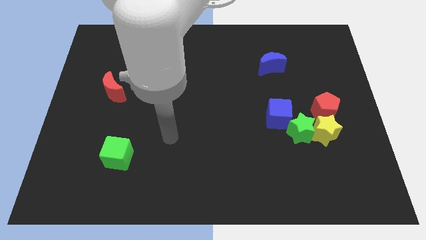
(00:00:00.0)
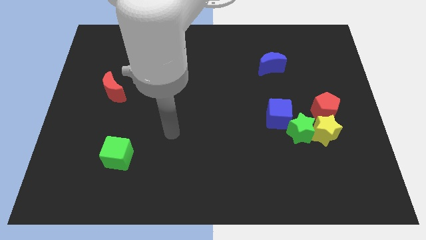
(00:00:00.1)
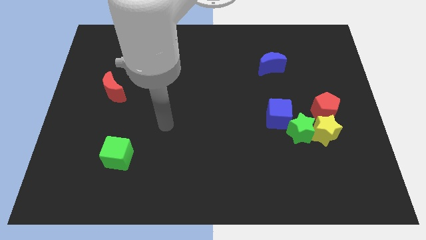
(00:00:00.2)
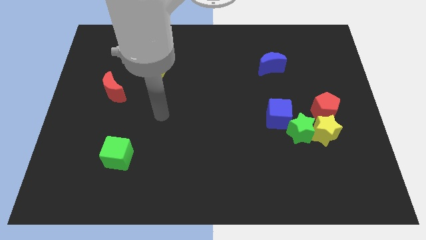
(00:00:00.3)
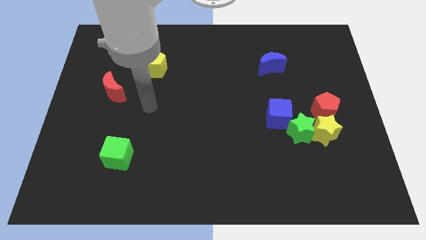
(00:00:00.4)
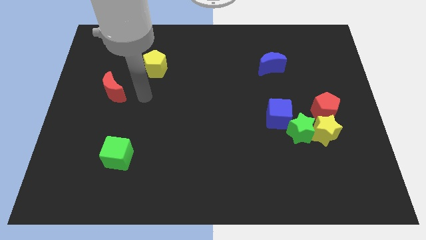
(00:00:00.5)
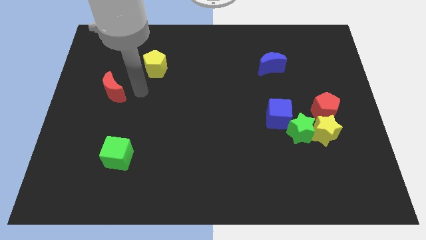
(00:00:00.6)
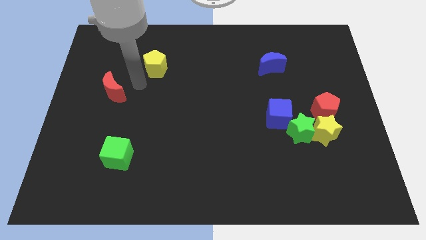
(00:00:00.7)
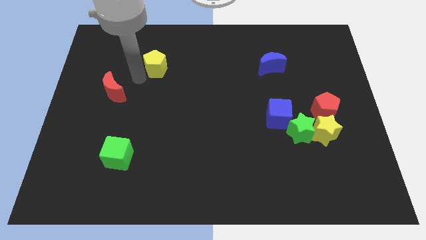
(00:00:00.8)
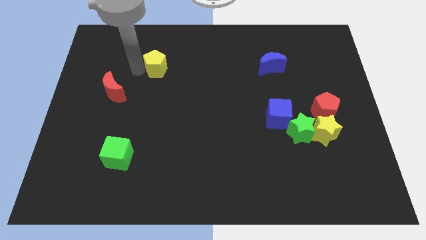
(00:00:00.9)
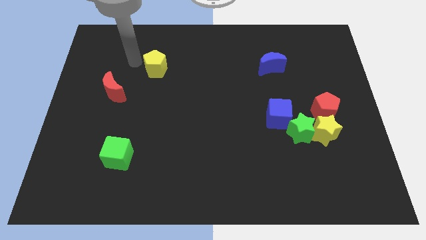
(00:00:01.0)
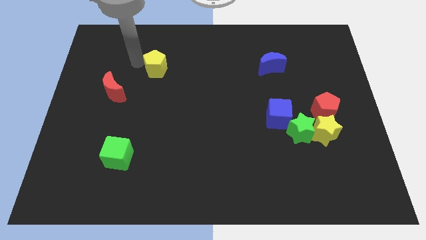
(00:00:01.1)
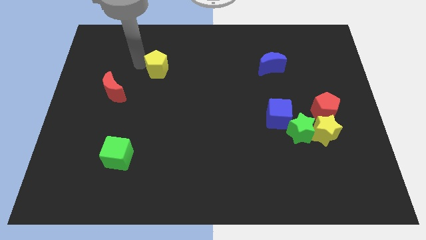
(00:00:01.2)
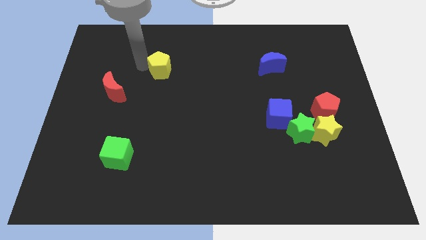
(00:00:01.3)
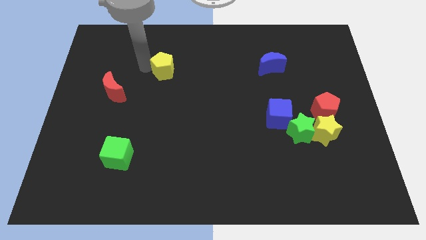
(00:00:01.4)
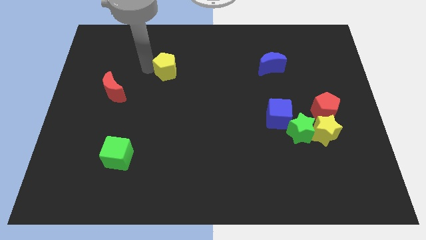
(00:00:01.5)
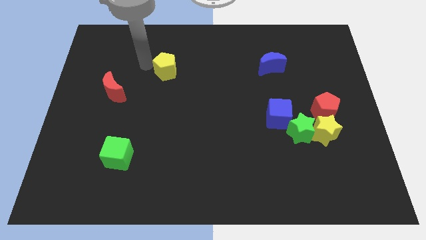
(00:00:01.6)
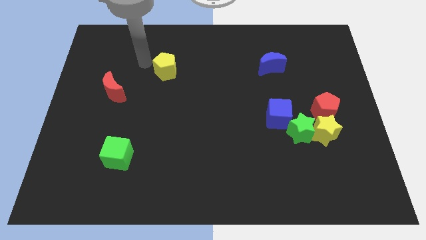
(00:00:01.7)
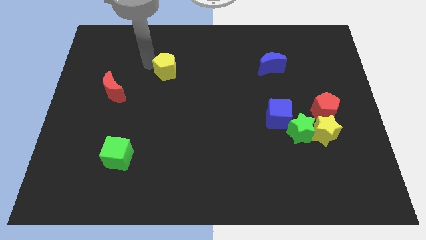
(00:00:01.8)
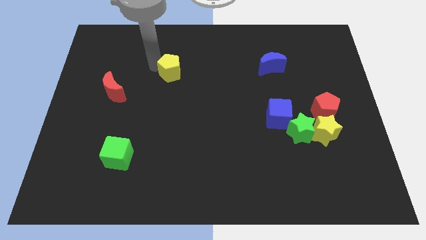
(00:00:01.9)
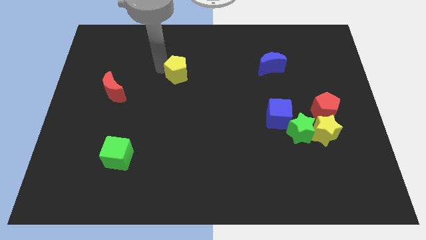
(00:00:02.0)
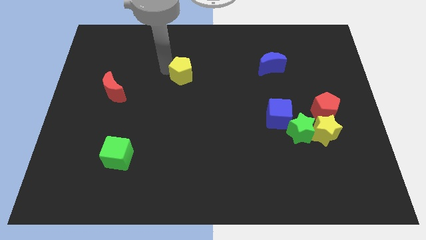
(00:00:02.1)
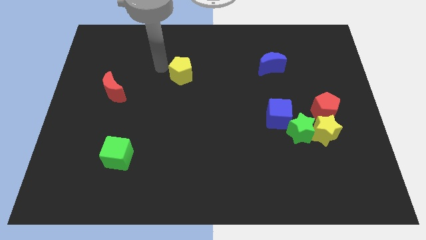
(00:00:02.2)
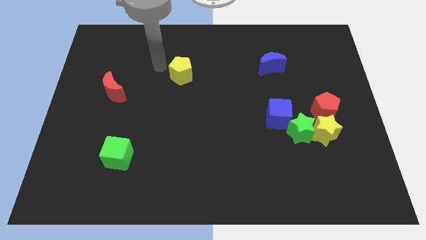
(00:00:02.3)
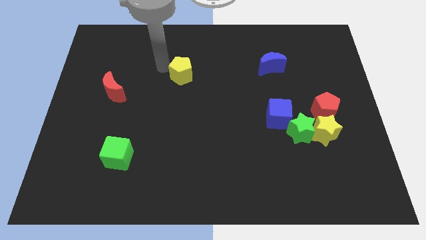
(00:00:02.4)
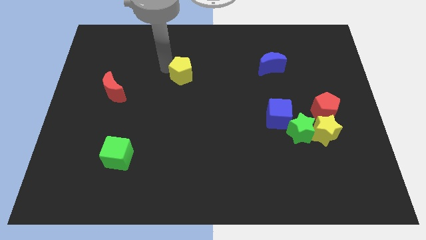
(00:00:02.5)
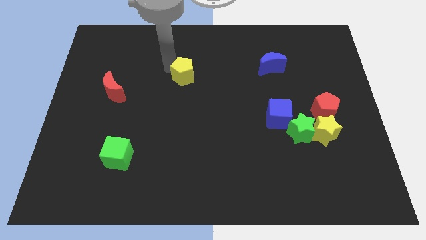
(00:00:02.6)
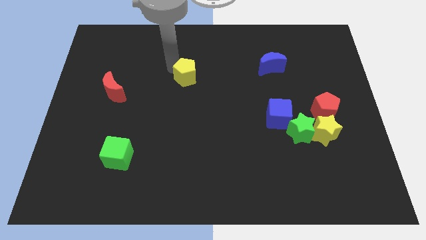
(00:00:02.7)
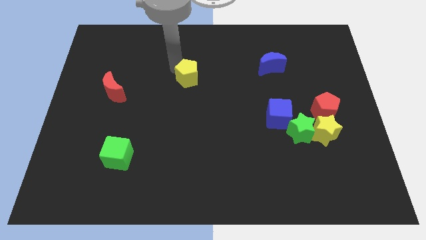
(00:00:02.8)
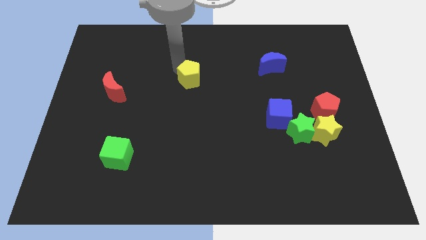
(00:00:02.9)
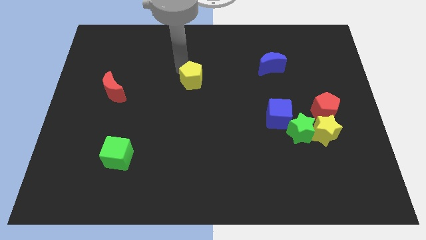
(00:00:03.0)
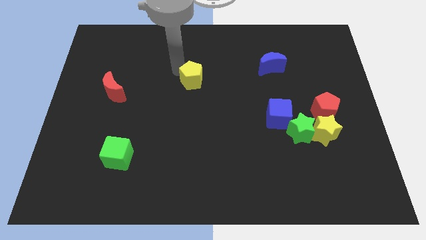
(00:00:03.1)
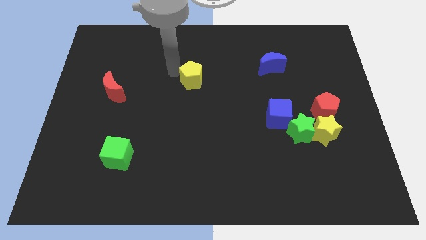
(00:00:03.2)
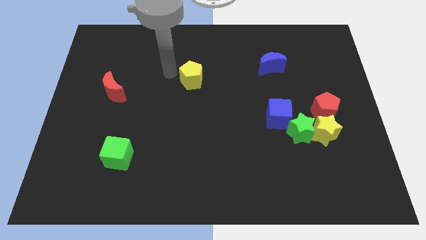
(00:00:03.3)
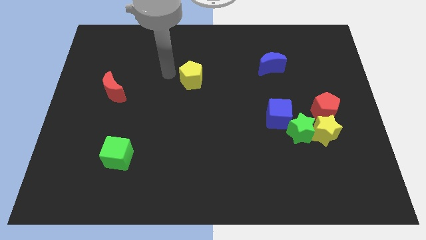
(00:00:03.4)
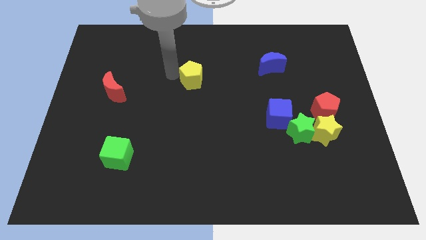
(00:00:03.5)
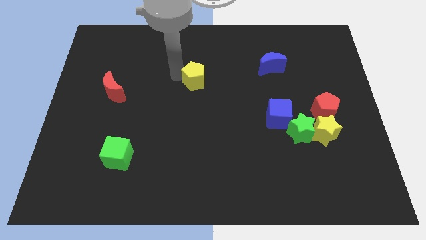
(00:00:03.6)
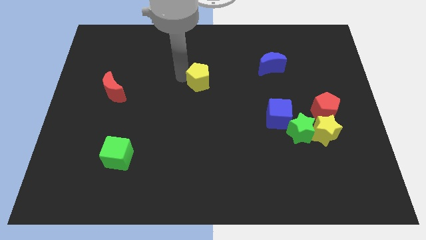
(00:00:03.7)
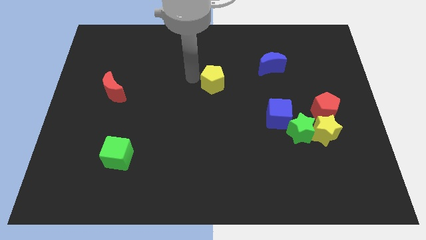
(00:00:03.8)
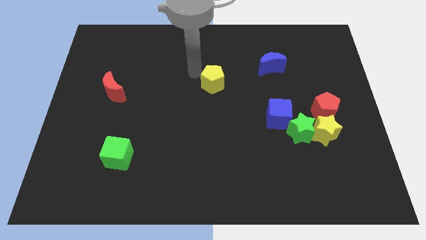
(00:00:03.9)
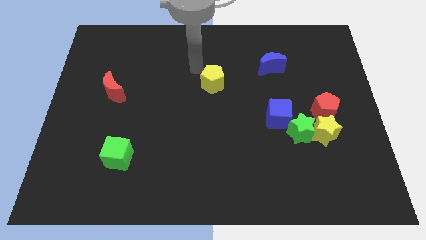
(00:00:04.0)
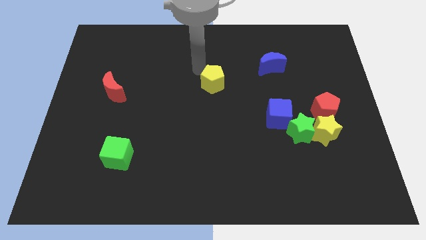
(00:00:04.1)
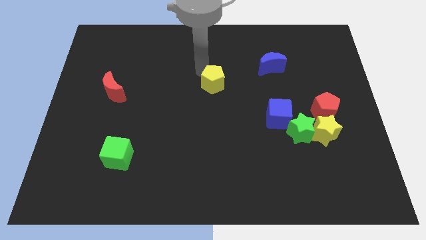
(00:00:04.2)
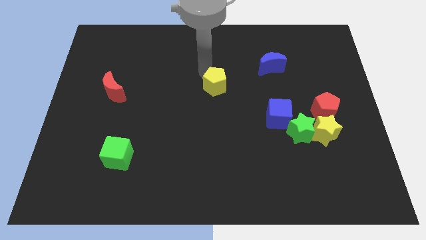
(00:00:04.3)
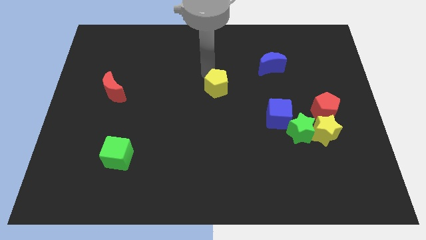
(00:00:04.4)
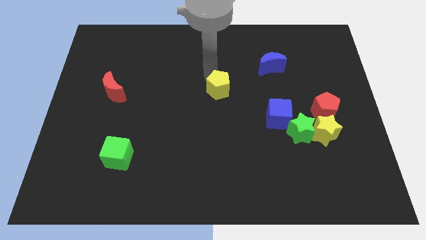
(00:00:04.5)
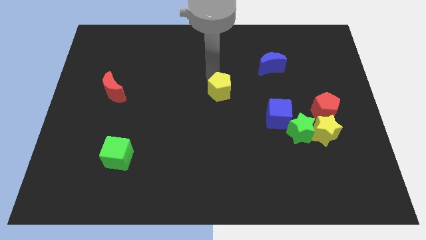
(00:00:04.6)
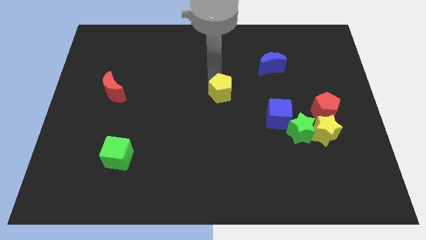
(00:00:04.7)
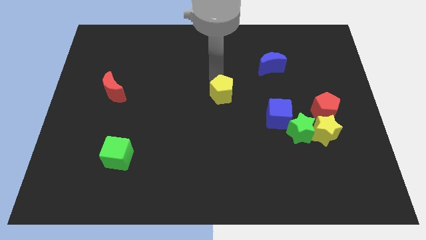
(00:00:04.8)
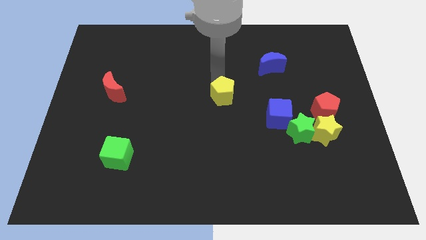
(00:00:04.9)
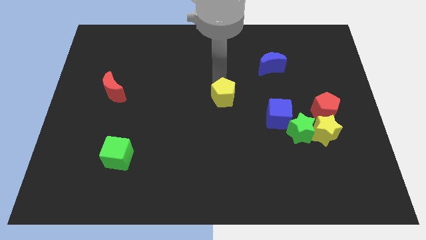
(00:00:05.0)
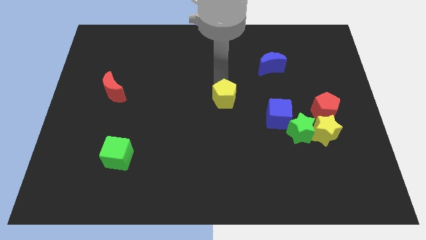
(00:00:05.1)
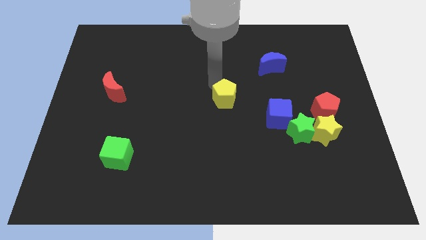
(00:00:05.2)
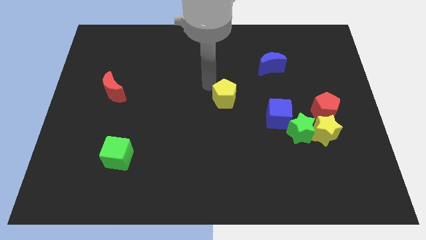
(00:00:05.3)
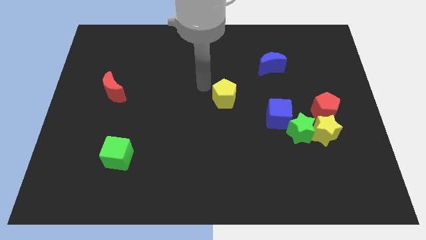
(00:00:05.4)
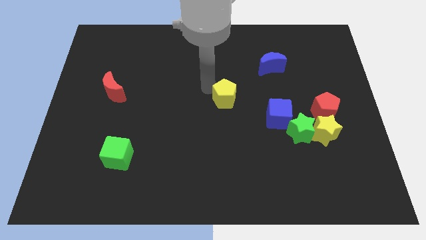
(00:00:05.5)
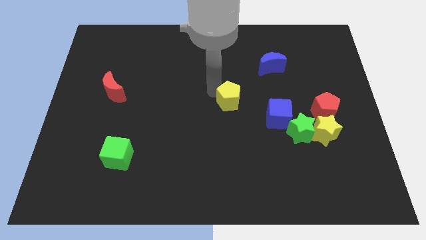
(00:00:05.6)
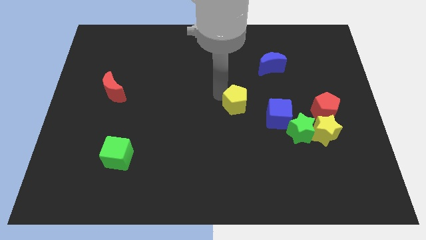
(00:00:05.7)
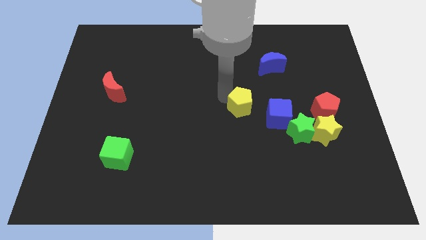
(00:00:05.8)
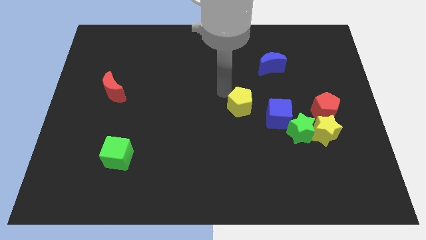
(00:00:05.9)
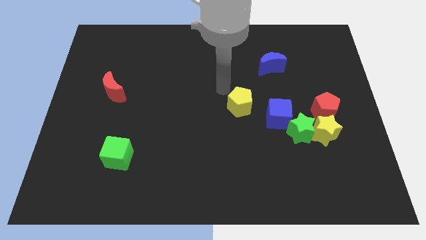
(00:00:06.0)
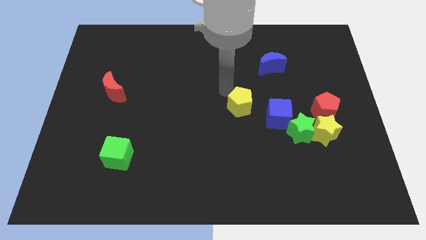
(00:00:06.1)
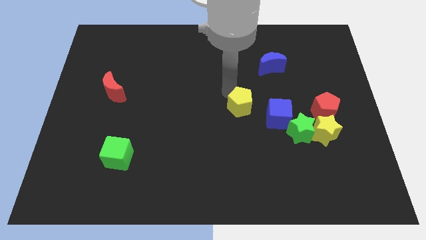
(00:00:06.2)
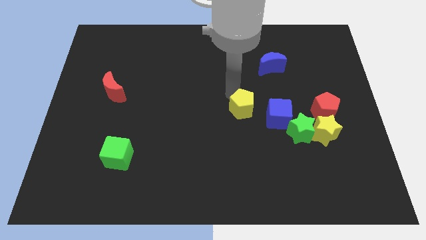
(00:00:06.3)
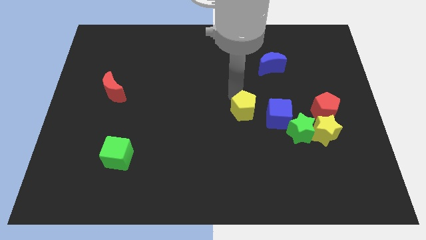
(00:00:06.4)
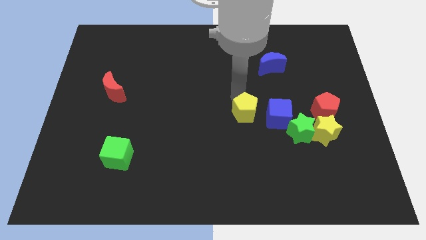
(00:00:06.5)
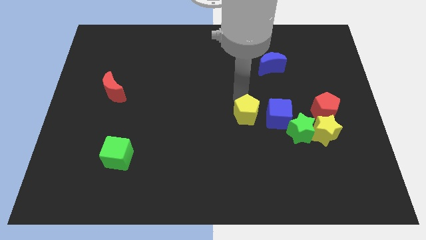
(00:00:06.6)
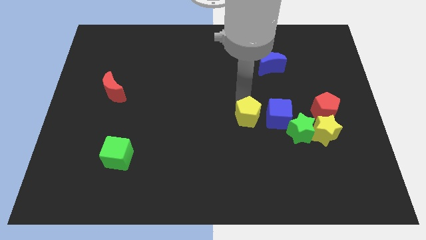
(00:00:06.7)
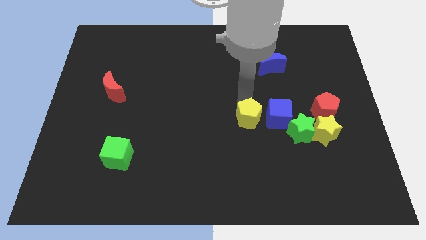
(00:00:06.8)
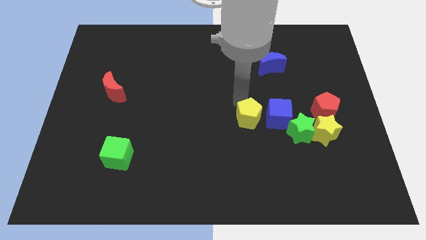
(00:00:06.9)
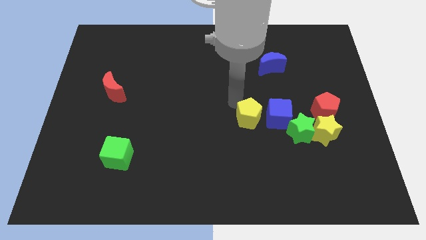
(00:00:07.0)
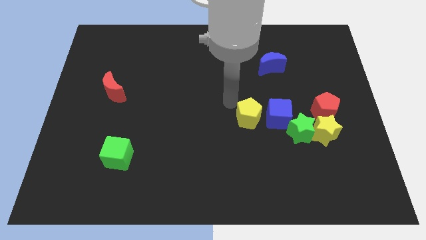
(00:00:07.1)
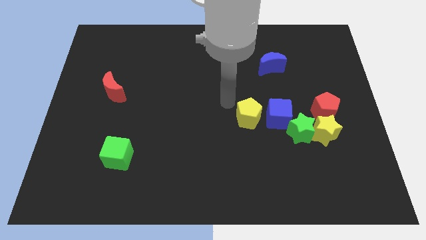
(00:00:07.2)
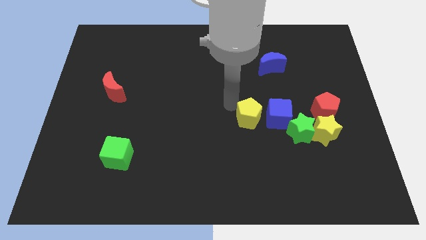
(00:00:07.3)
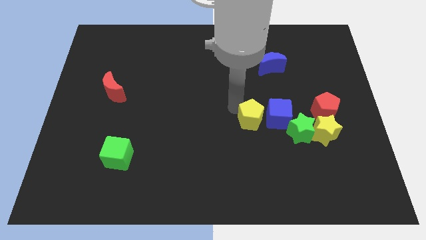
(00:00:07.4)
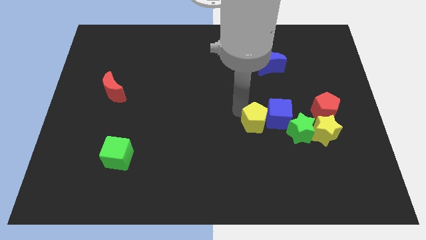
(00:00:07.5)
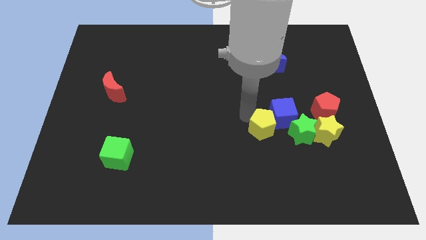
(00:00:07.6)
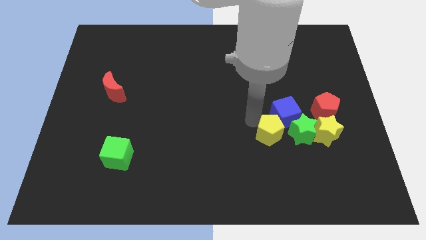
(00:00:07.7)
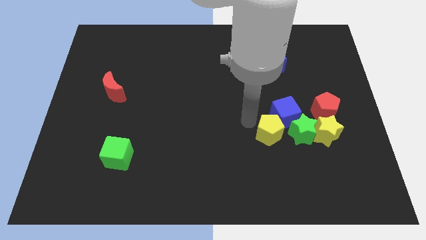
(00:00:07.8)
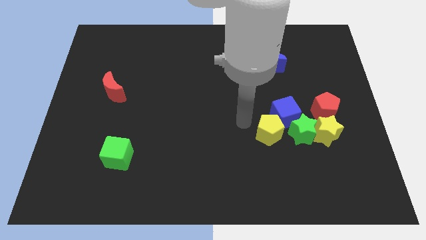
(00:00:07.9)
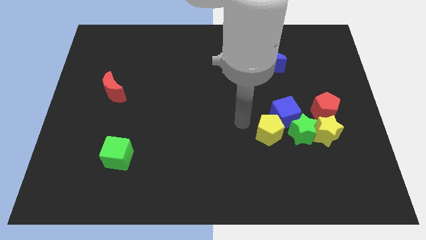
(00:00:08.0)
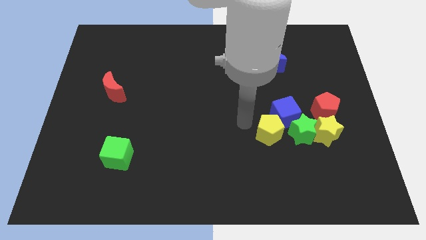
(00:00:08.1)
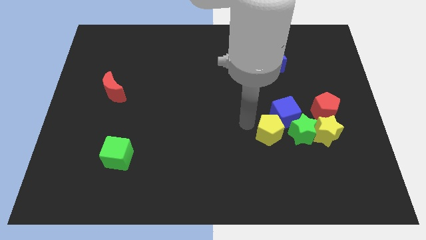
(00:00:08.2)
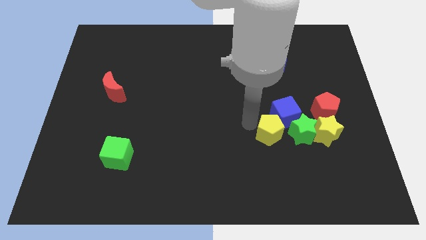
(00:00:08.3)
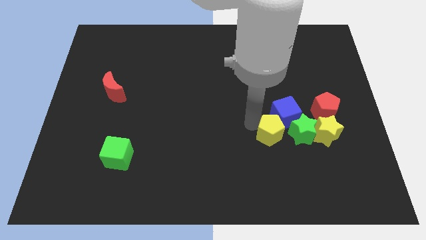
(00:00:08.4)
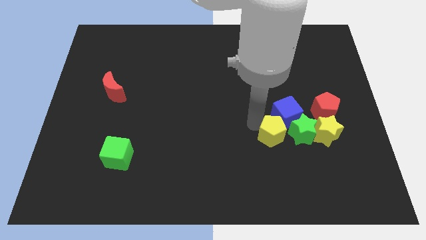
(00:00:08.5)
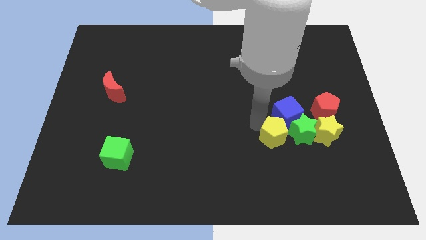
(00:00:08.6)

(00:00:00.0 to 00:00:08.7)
slide the yellow pentagon close to the green star
